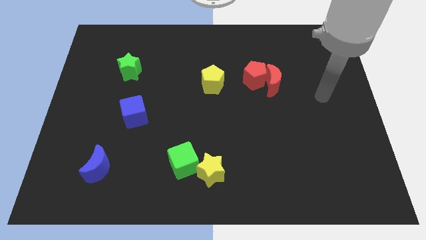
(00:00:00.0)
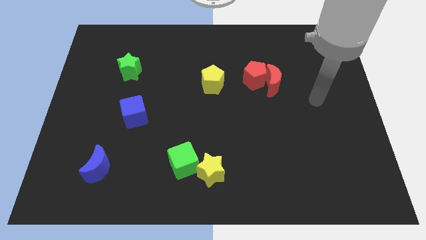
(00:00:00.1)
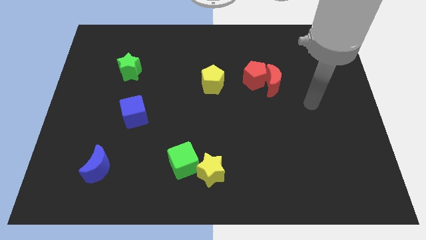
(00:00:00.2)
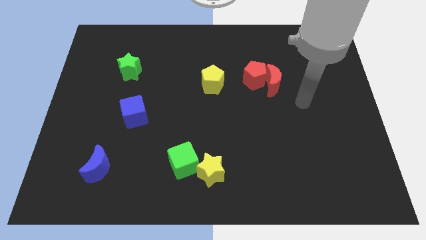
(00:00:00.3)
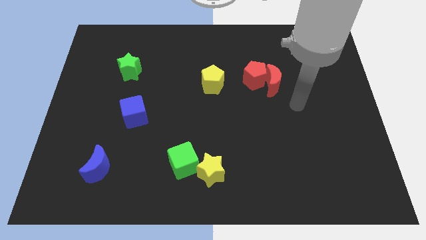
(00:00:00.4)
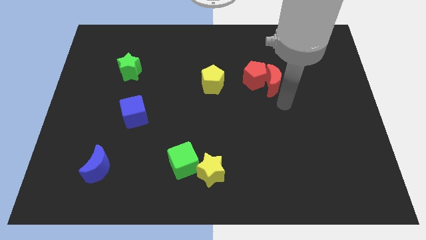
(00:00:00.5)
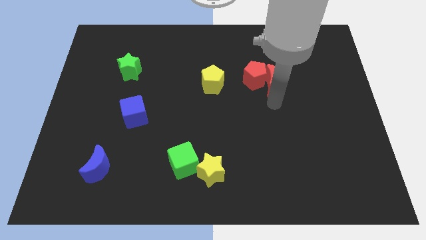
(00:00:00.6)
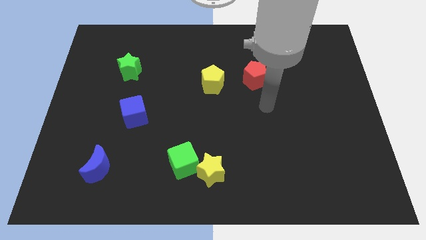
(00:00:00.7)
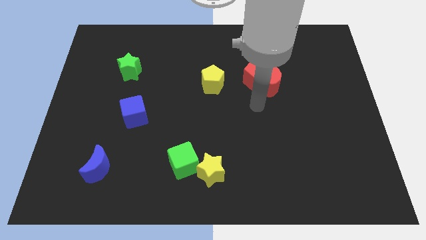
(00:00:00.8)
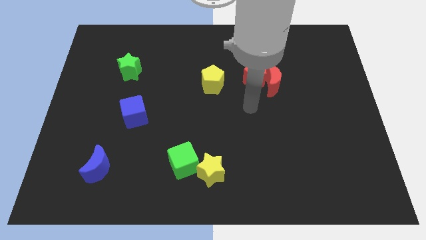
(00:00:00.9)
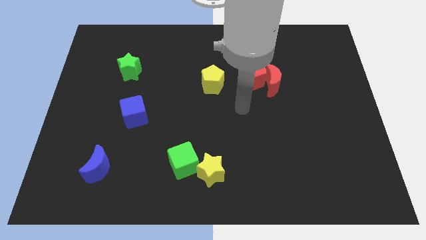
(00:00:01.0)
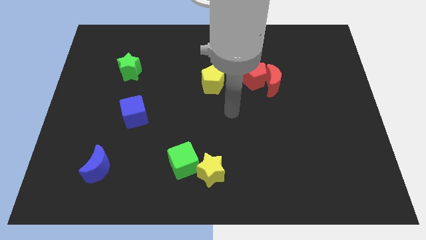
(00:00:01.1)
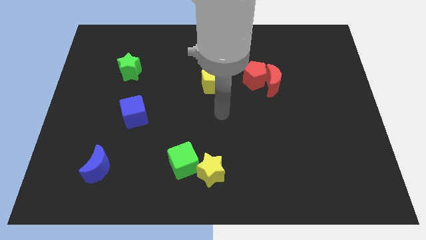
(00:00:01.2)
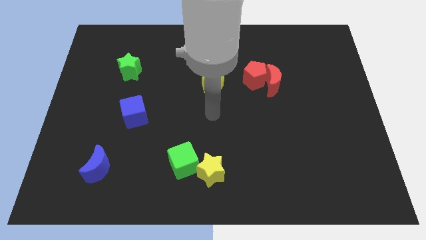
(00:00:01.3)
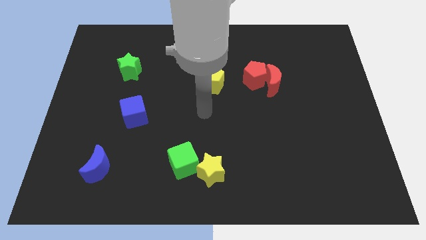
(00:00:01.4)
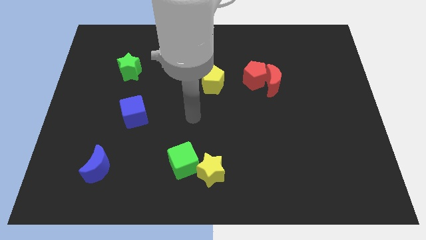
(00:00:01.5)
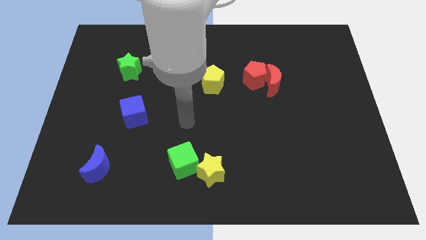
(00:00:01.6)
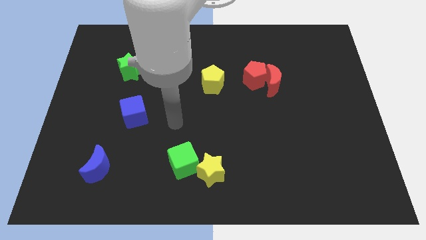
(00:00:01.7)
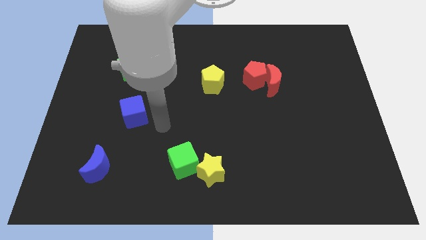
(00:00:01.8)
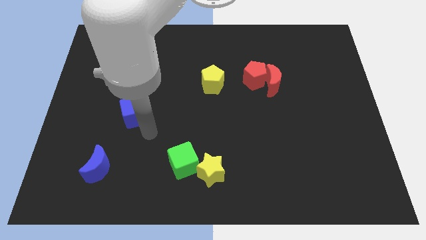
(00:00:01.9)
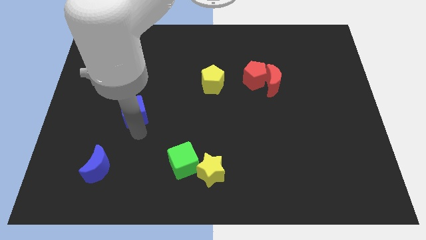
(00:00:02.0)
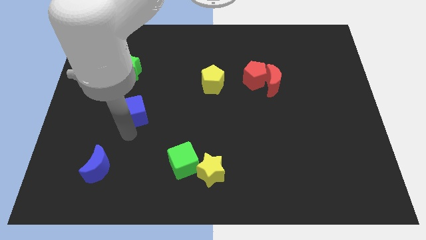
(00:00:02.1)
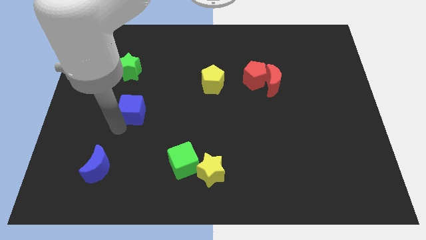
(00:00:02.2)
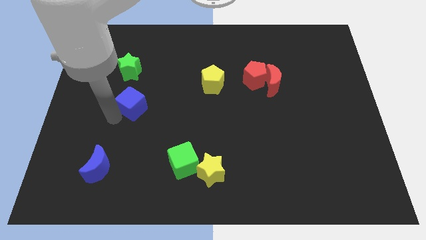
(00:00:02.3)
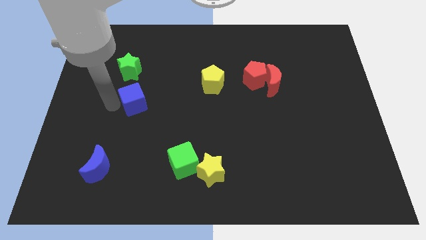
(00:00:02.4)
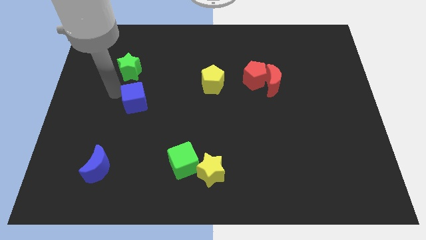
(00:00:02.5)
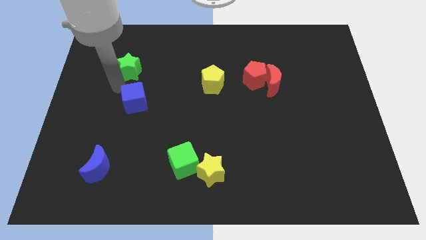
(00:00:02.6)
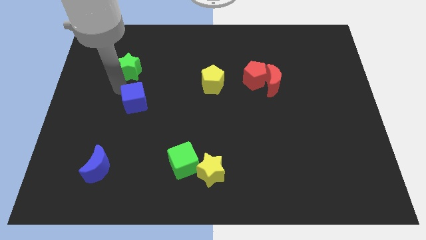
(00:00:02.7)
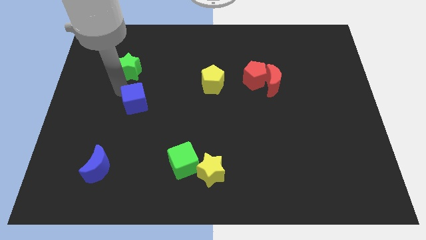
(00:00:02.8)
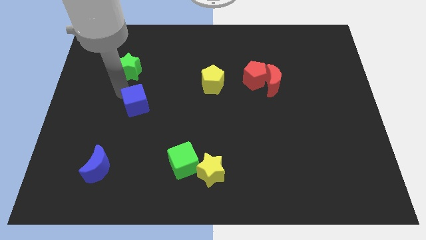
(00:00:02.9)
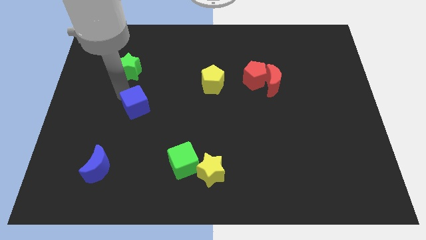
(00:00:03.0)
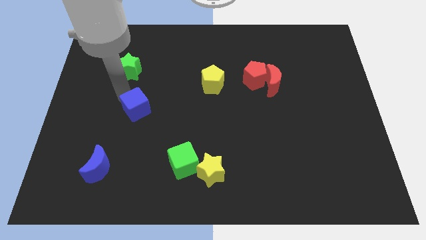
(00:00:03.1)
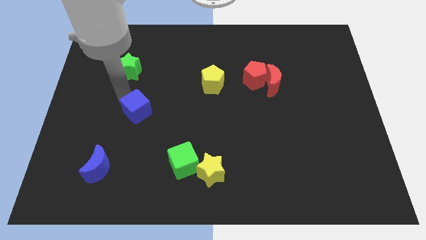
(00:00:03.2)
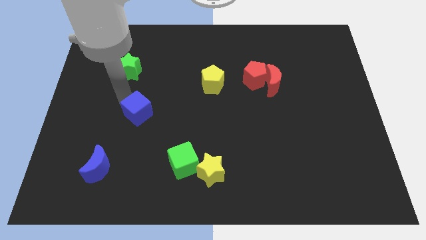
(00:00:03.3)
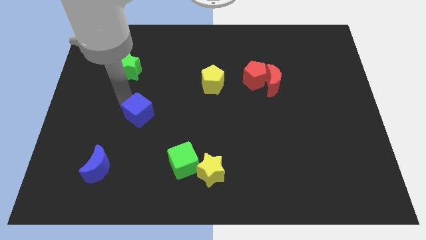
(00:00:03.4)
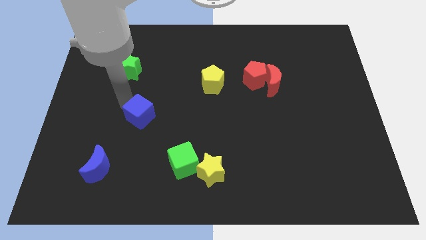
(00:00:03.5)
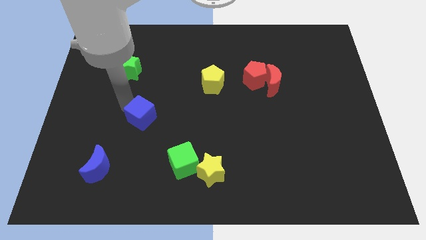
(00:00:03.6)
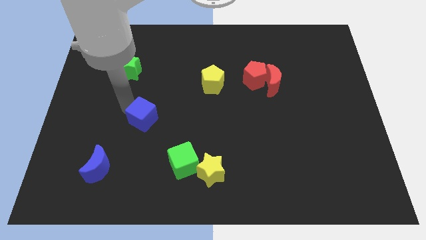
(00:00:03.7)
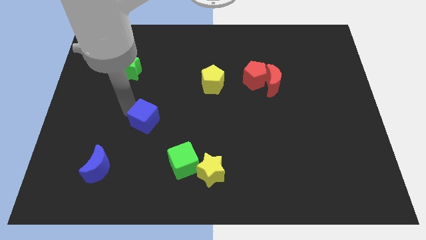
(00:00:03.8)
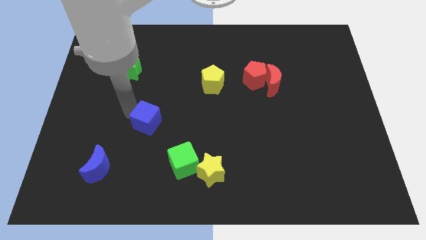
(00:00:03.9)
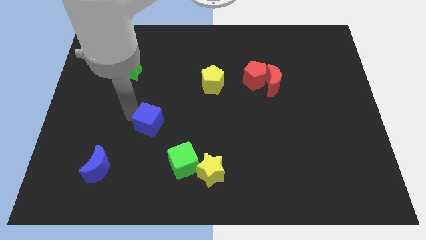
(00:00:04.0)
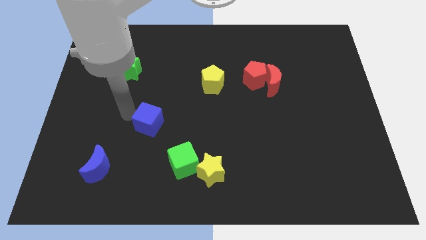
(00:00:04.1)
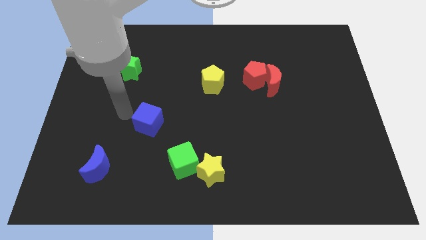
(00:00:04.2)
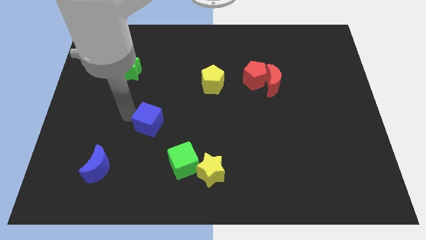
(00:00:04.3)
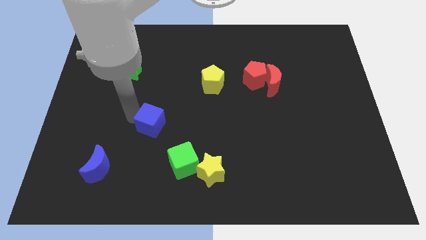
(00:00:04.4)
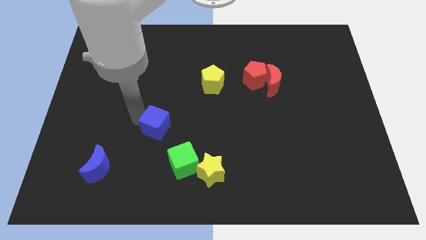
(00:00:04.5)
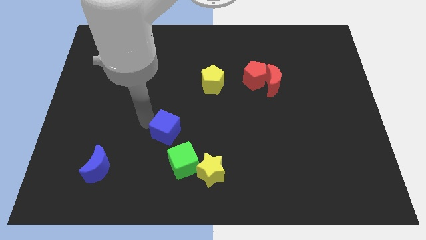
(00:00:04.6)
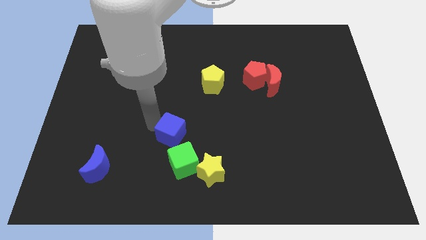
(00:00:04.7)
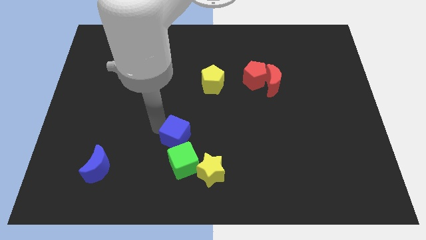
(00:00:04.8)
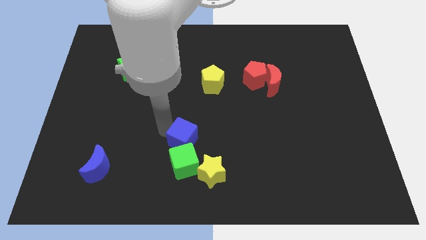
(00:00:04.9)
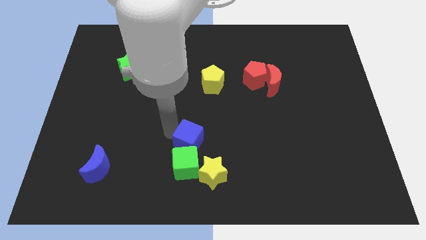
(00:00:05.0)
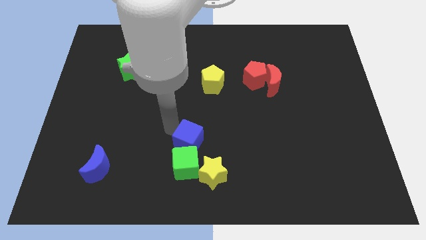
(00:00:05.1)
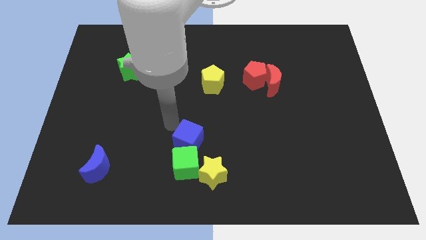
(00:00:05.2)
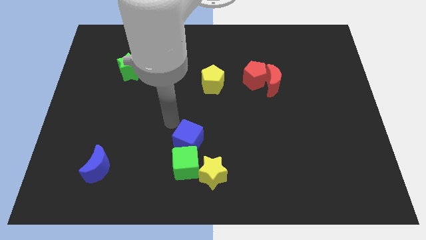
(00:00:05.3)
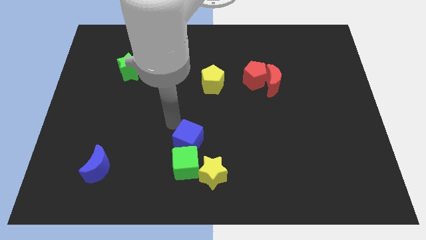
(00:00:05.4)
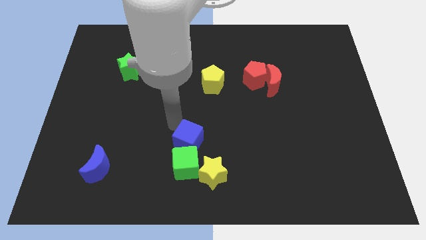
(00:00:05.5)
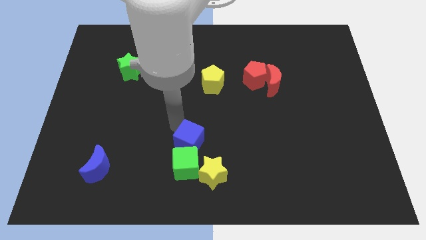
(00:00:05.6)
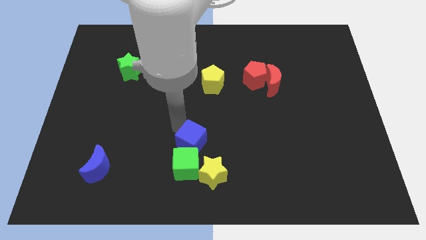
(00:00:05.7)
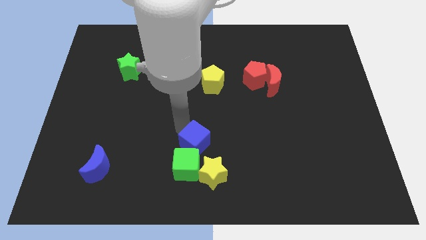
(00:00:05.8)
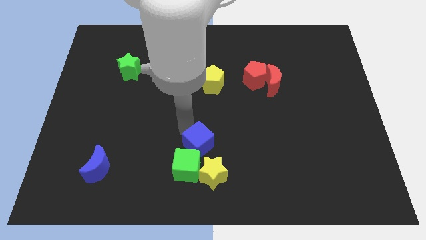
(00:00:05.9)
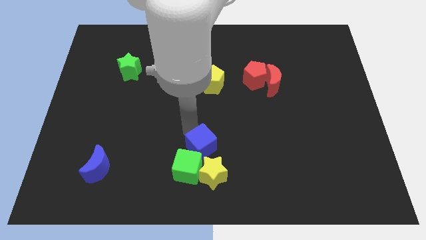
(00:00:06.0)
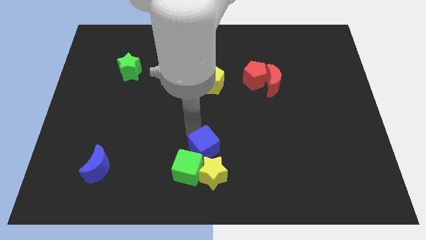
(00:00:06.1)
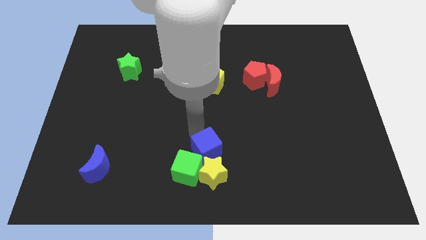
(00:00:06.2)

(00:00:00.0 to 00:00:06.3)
slide the blue cube close to the yellow star

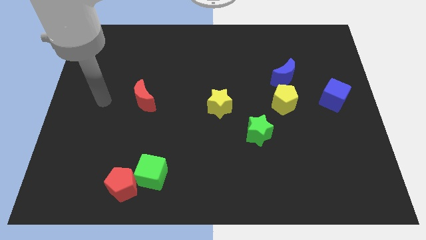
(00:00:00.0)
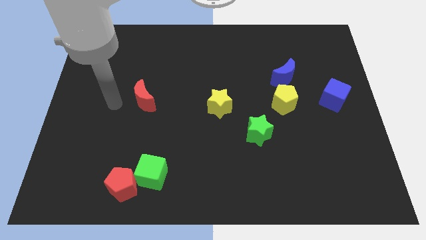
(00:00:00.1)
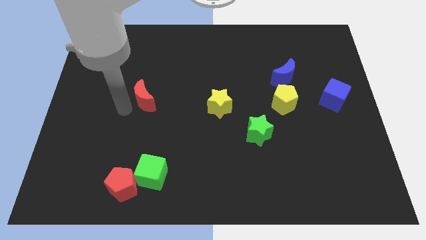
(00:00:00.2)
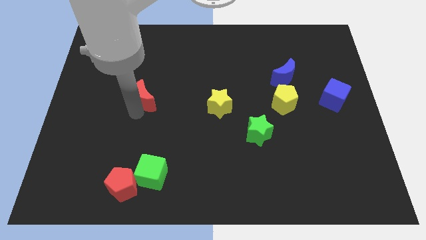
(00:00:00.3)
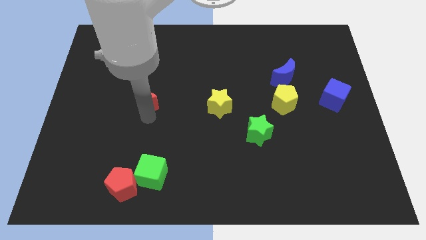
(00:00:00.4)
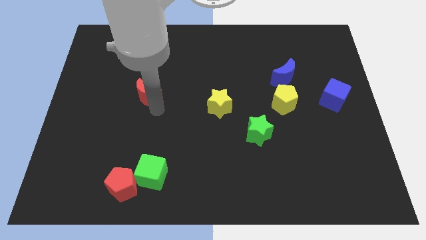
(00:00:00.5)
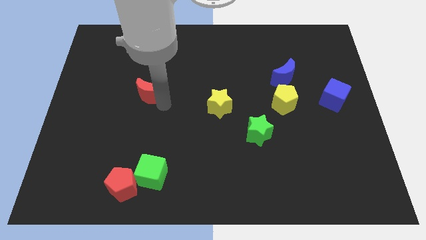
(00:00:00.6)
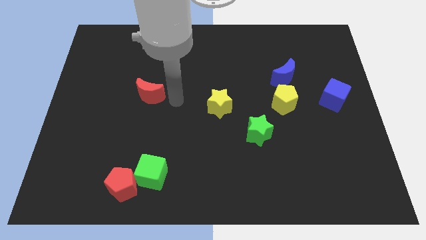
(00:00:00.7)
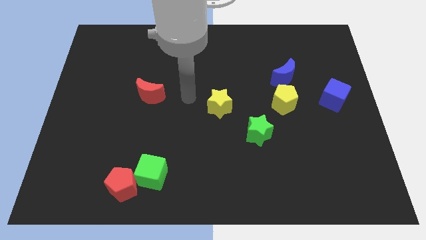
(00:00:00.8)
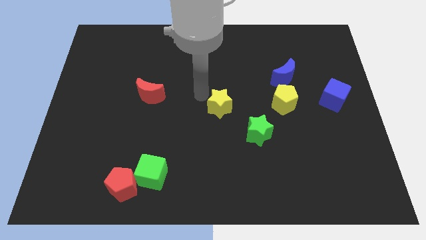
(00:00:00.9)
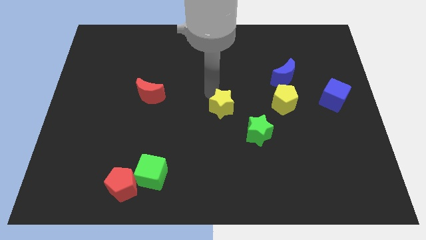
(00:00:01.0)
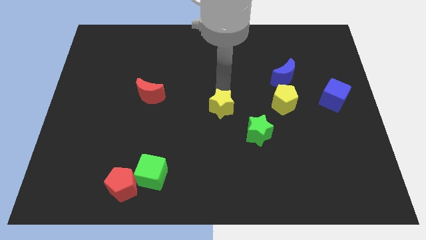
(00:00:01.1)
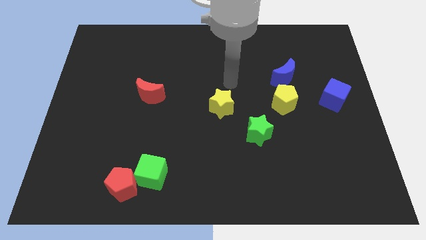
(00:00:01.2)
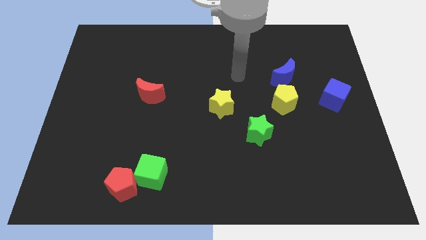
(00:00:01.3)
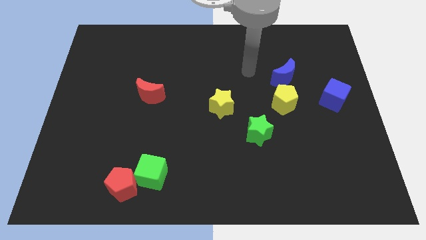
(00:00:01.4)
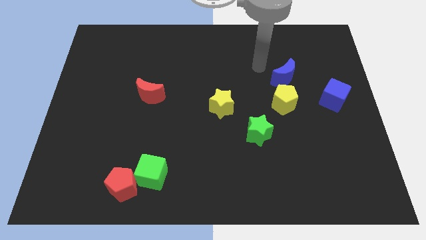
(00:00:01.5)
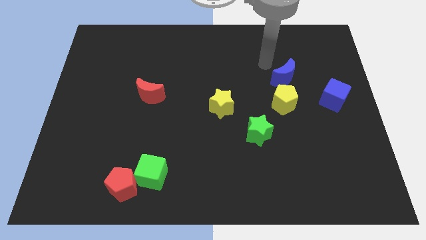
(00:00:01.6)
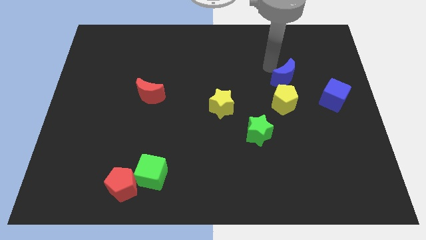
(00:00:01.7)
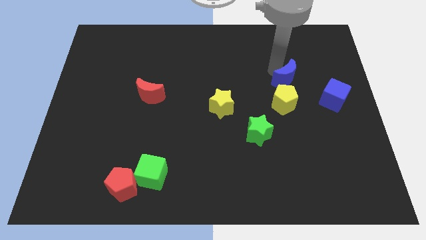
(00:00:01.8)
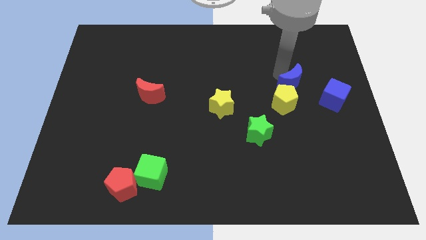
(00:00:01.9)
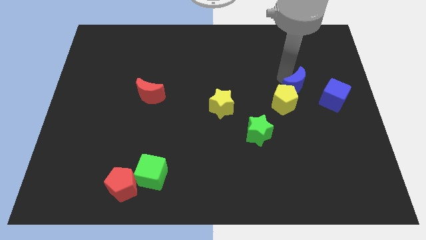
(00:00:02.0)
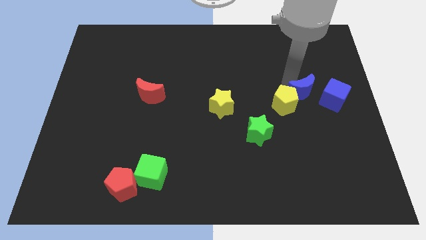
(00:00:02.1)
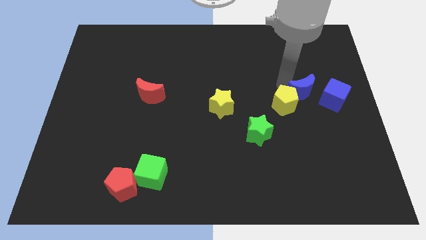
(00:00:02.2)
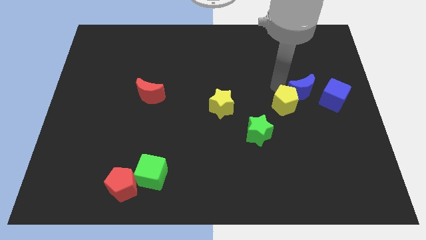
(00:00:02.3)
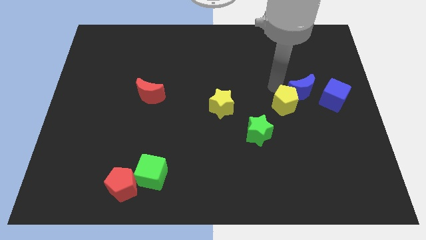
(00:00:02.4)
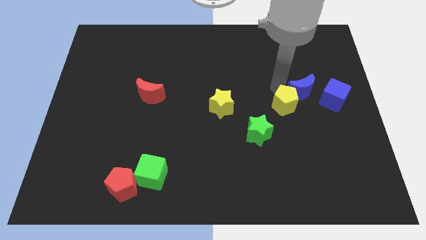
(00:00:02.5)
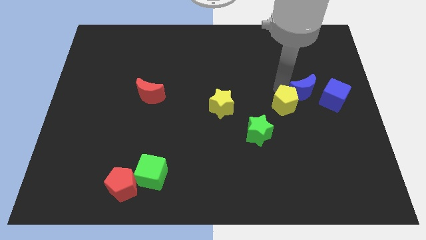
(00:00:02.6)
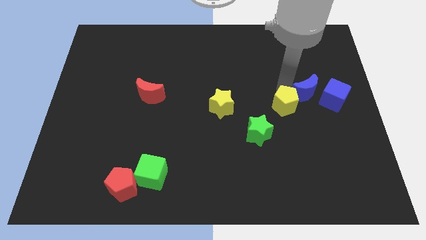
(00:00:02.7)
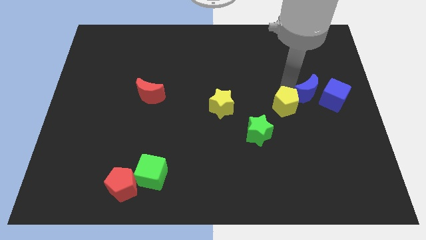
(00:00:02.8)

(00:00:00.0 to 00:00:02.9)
put the blue moon next to the blue cube
